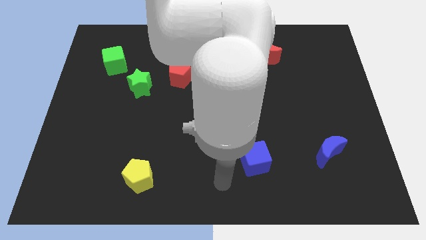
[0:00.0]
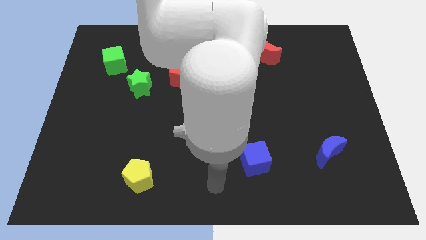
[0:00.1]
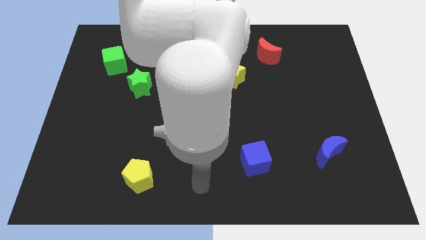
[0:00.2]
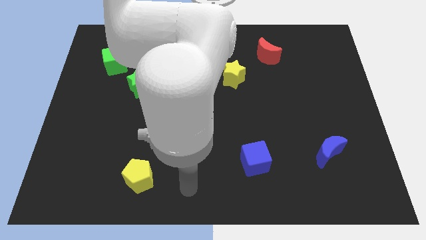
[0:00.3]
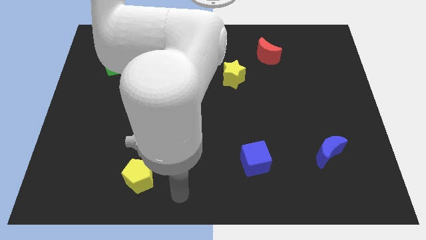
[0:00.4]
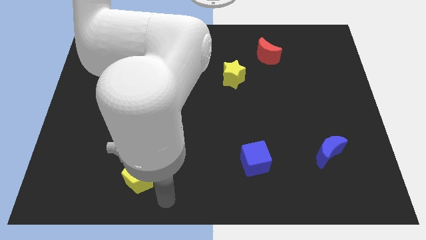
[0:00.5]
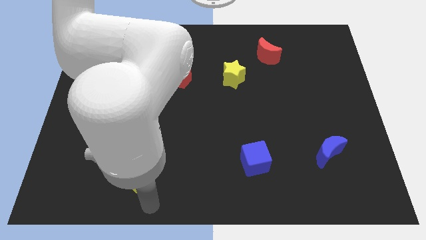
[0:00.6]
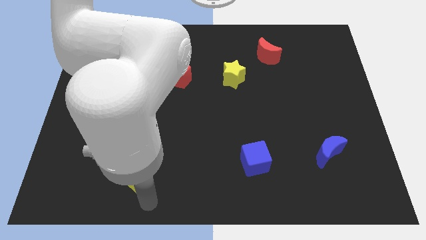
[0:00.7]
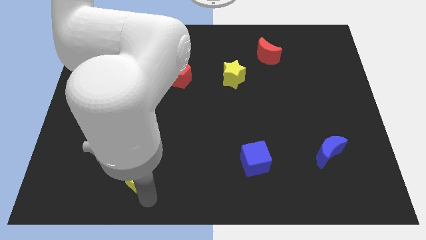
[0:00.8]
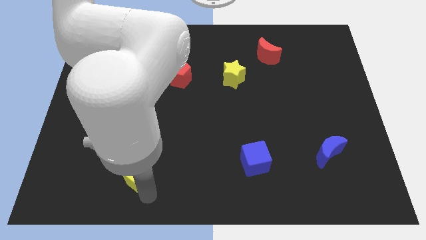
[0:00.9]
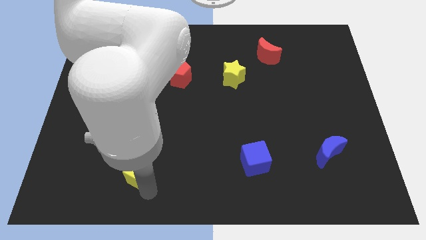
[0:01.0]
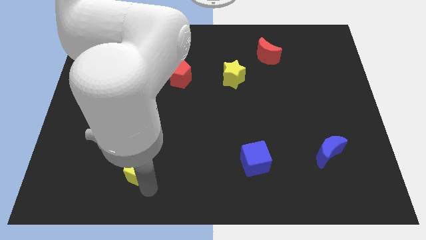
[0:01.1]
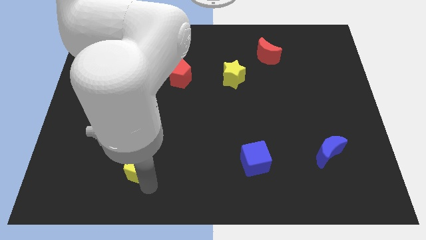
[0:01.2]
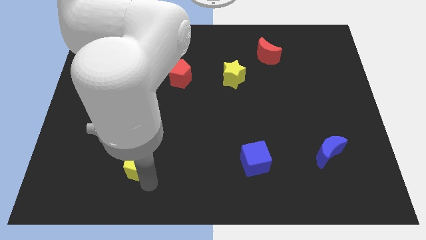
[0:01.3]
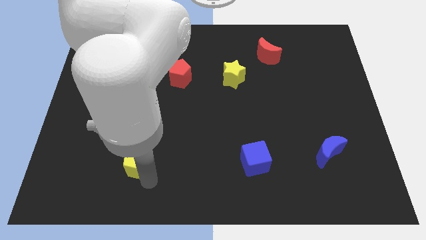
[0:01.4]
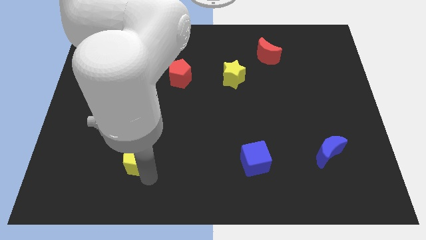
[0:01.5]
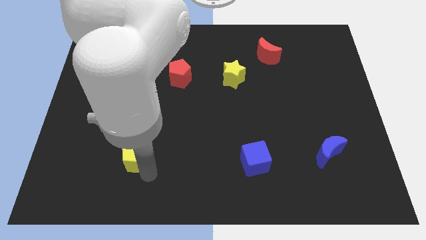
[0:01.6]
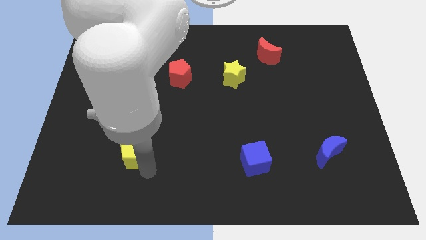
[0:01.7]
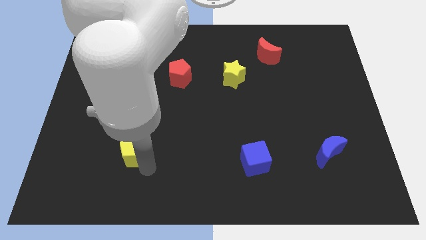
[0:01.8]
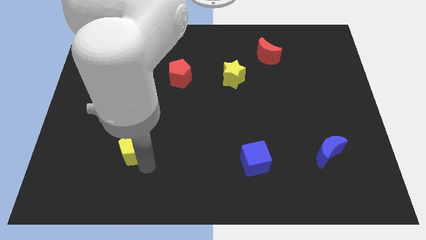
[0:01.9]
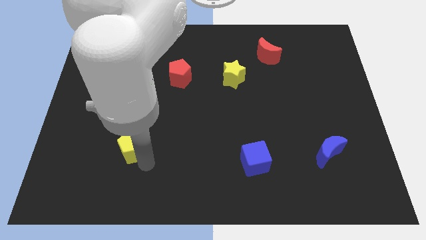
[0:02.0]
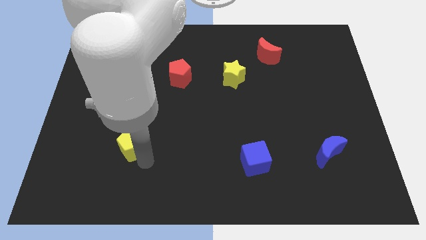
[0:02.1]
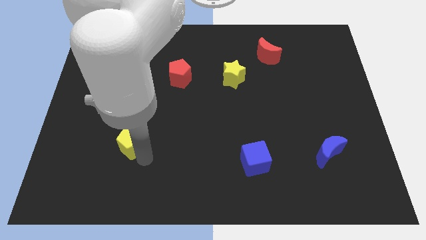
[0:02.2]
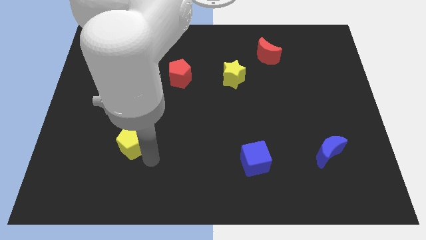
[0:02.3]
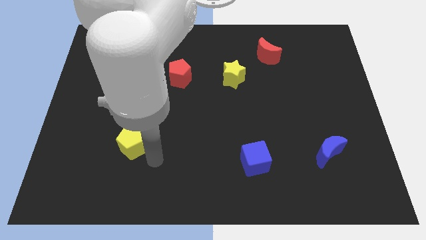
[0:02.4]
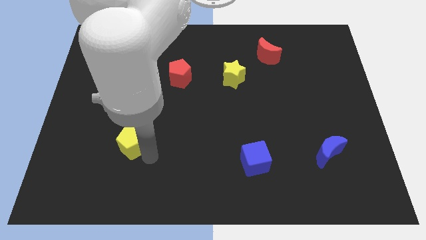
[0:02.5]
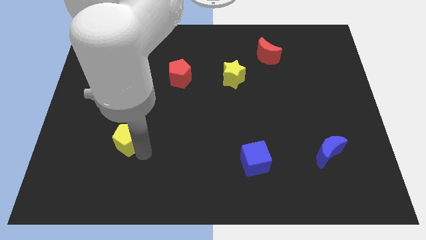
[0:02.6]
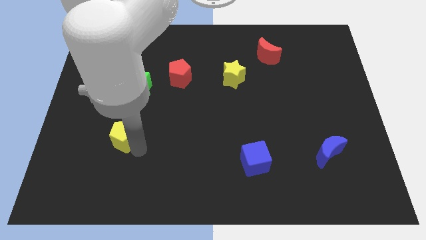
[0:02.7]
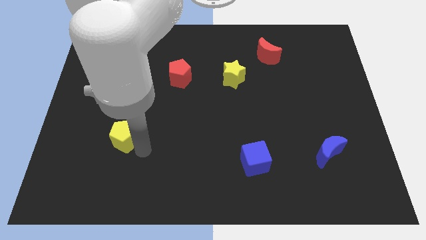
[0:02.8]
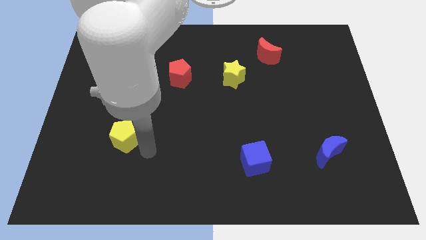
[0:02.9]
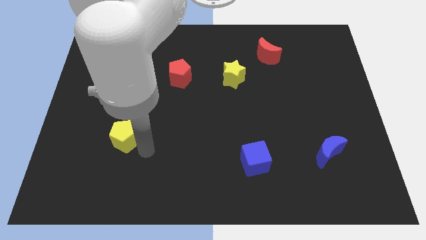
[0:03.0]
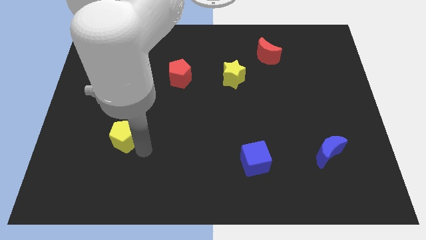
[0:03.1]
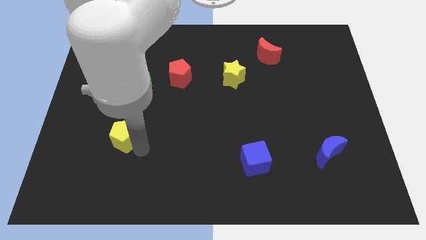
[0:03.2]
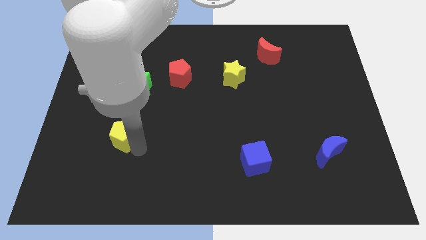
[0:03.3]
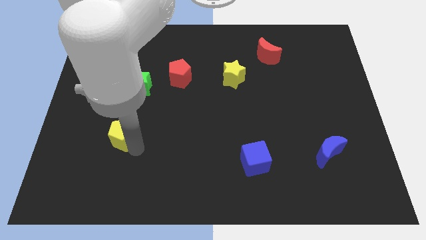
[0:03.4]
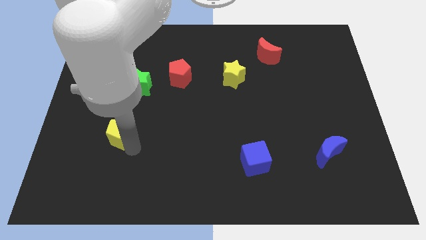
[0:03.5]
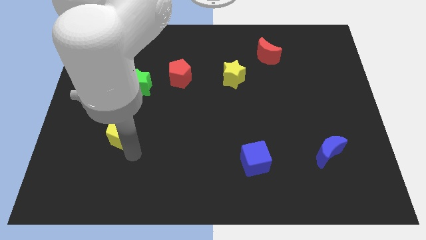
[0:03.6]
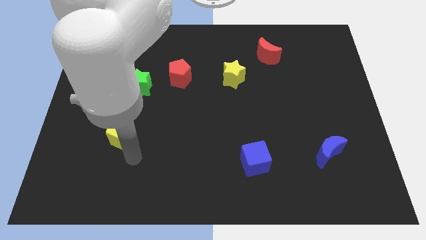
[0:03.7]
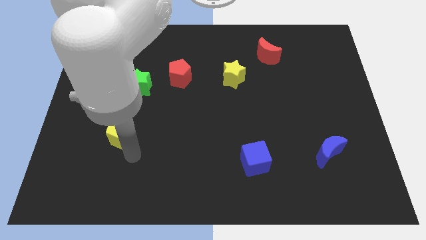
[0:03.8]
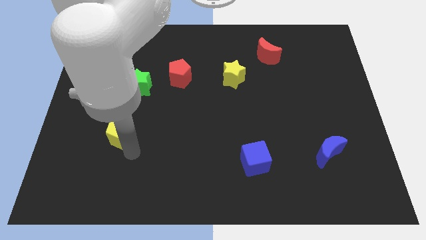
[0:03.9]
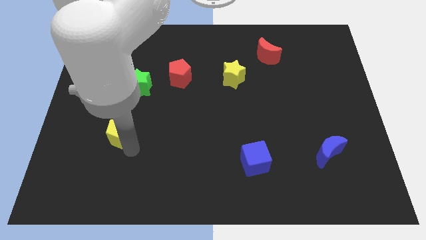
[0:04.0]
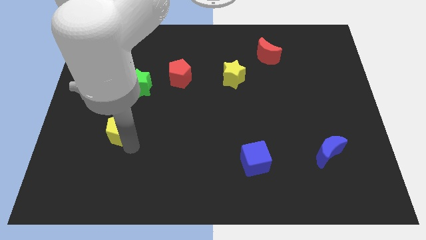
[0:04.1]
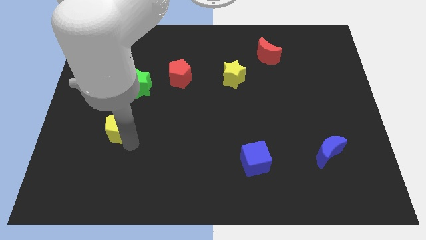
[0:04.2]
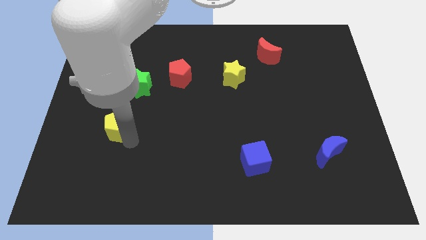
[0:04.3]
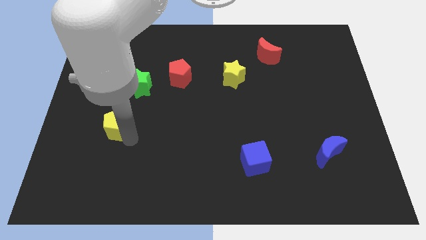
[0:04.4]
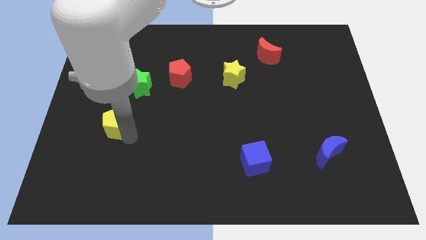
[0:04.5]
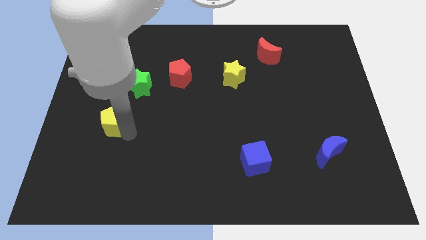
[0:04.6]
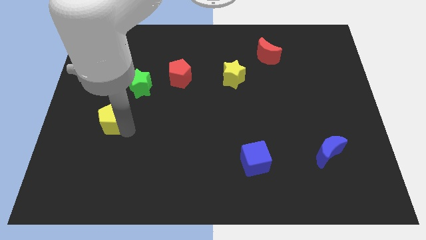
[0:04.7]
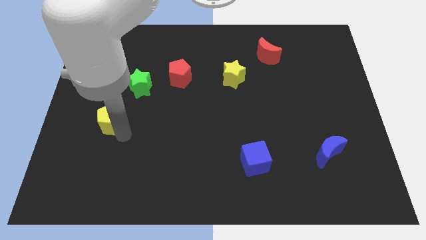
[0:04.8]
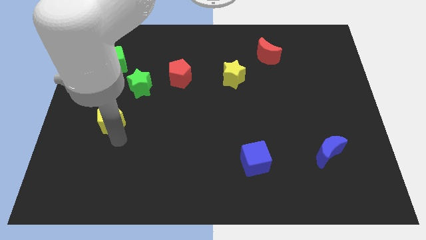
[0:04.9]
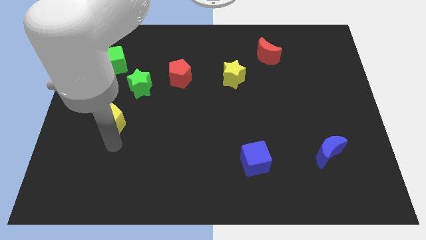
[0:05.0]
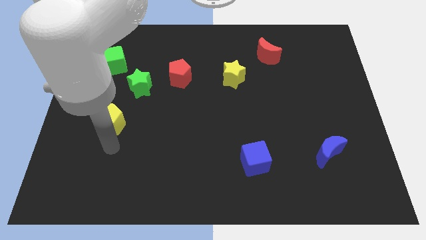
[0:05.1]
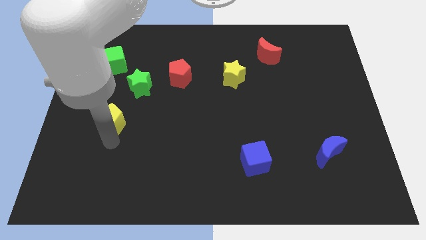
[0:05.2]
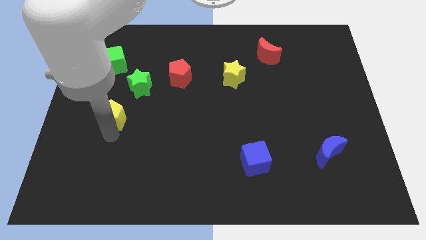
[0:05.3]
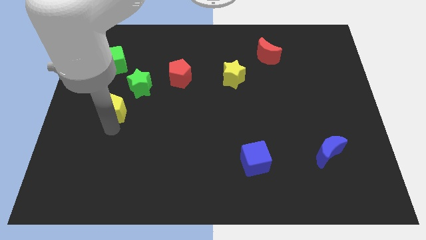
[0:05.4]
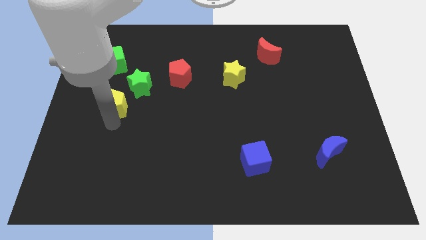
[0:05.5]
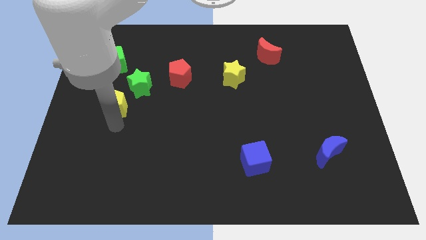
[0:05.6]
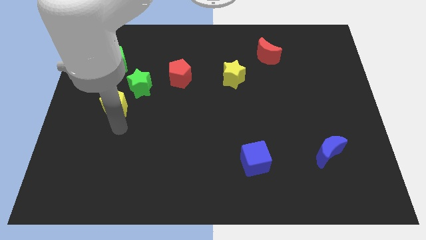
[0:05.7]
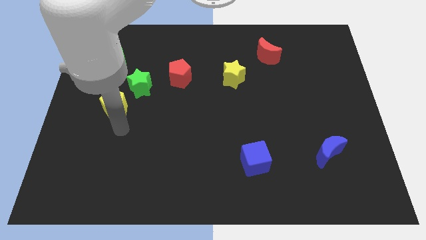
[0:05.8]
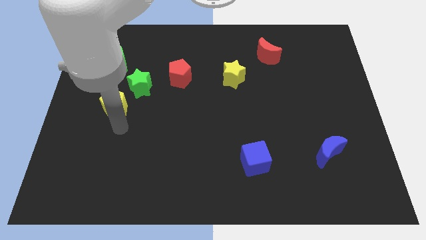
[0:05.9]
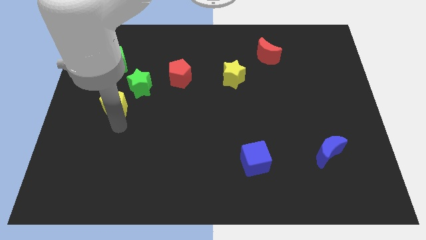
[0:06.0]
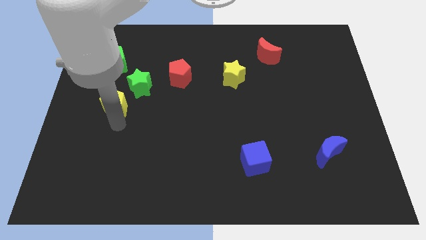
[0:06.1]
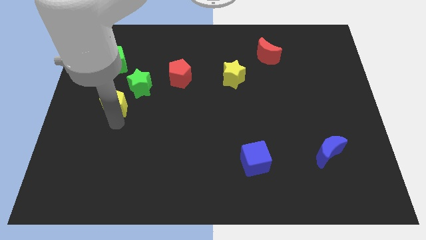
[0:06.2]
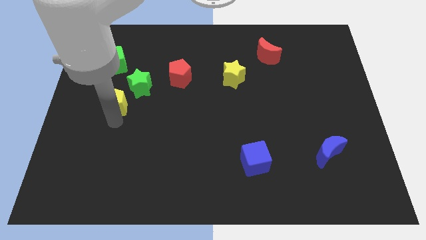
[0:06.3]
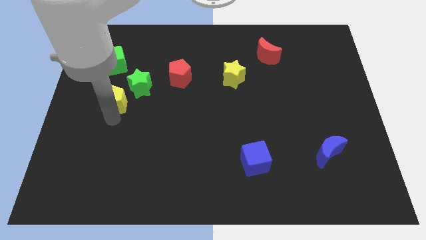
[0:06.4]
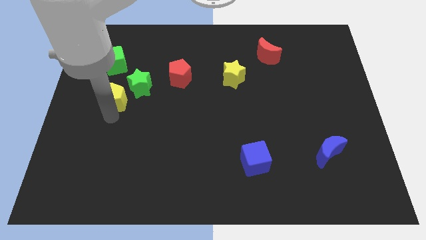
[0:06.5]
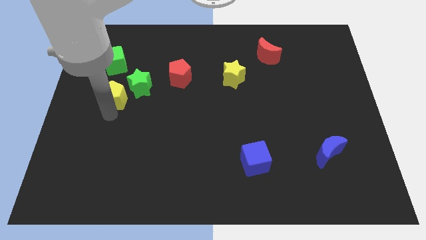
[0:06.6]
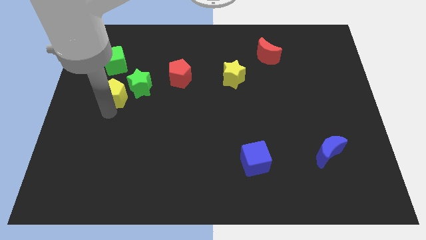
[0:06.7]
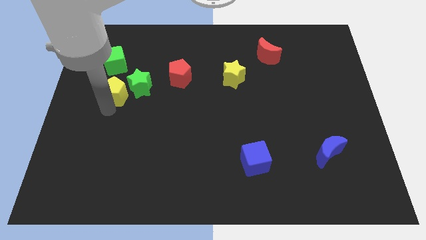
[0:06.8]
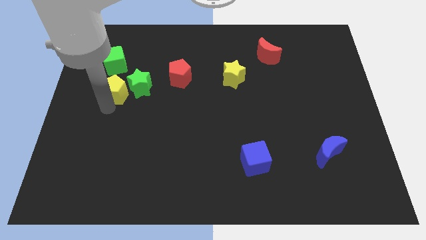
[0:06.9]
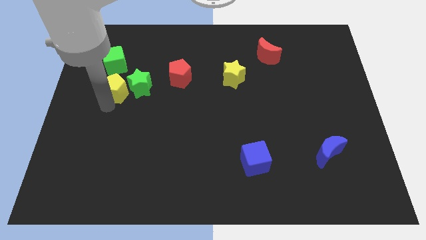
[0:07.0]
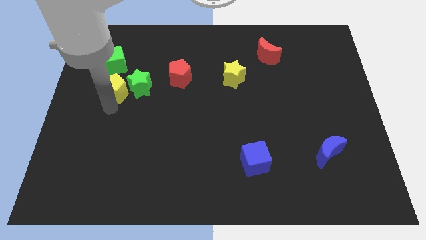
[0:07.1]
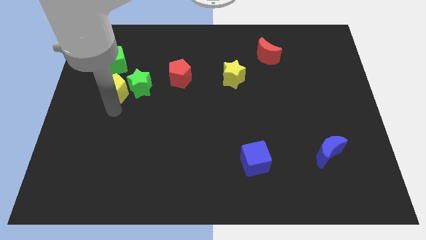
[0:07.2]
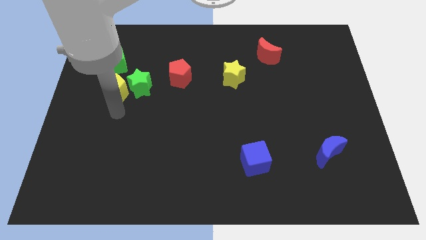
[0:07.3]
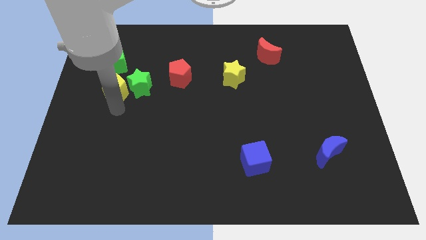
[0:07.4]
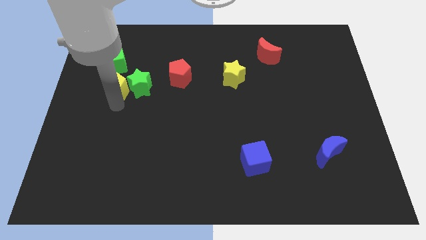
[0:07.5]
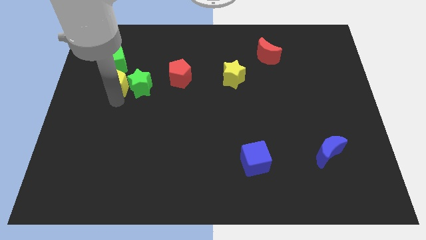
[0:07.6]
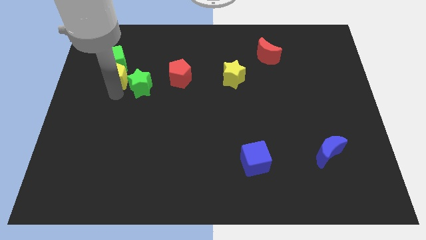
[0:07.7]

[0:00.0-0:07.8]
put the yellow pentagon next to the green cube
